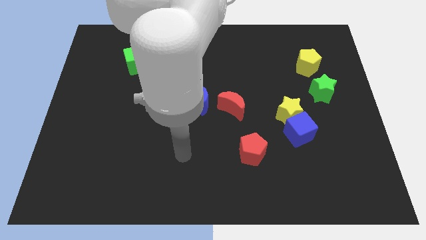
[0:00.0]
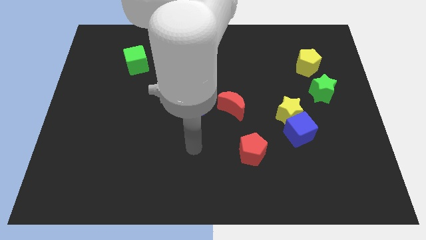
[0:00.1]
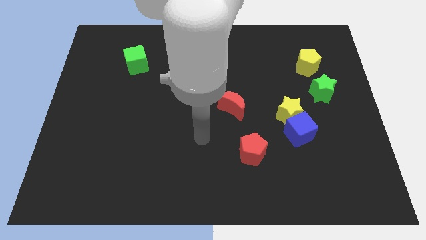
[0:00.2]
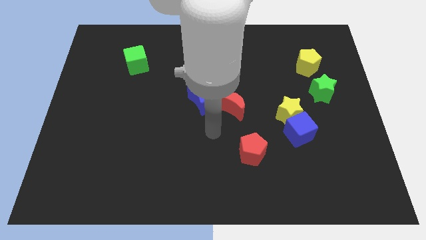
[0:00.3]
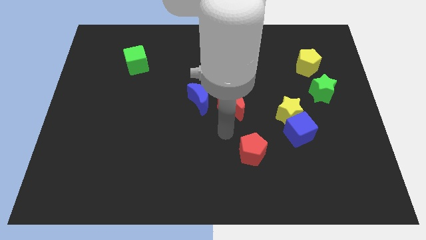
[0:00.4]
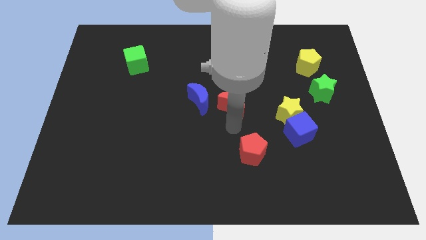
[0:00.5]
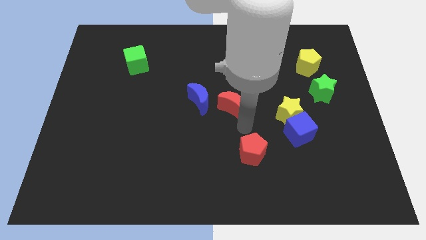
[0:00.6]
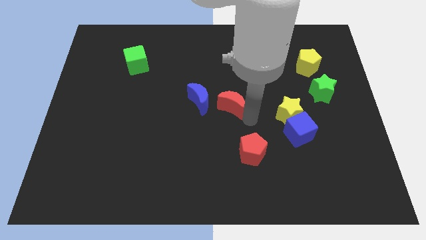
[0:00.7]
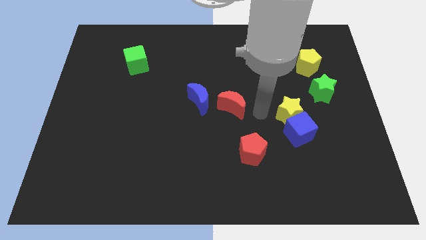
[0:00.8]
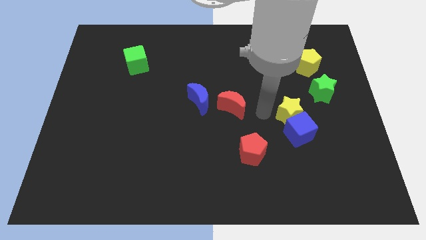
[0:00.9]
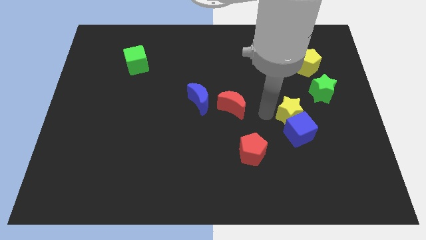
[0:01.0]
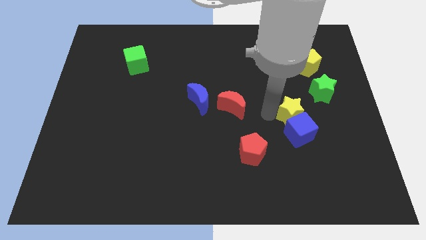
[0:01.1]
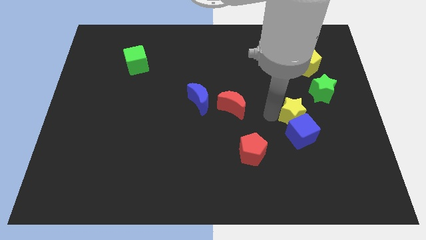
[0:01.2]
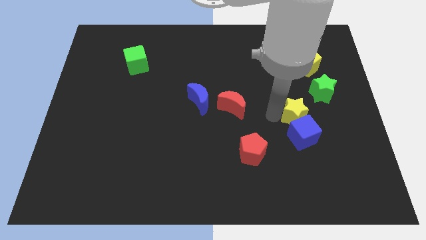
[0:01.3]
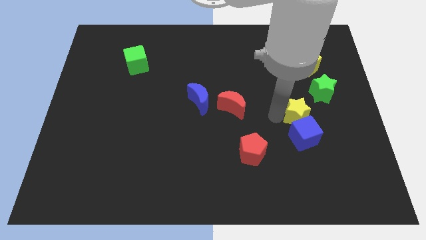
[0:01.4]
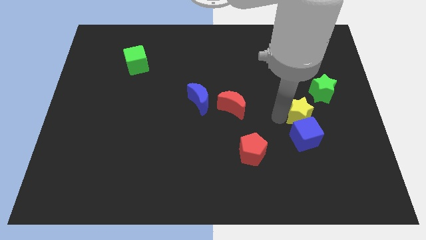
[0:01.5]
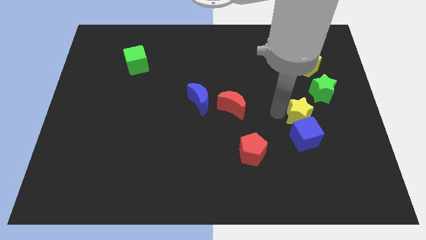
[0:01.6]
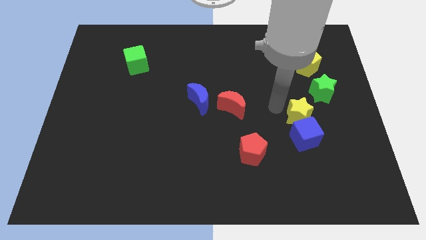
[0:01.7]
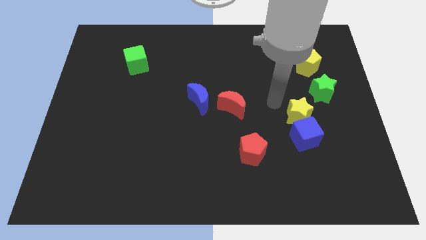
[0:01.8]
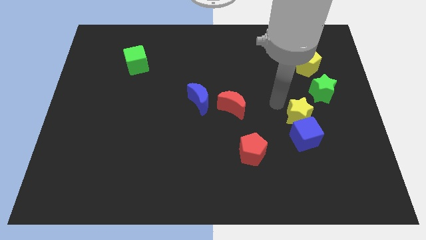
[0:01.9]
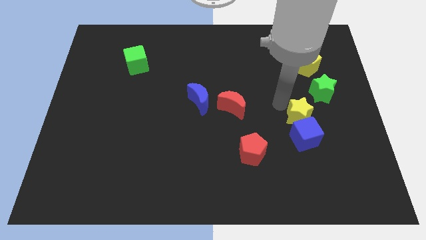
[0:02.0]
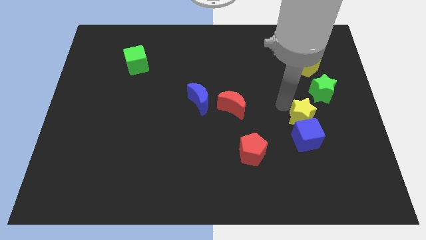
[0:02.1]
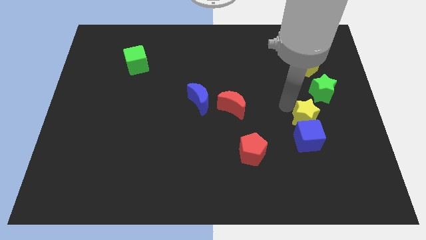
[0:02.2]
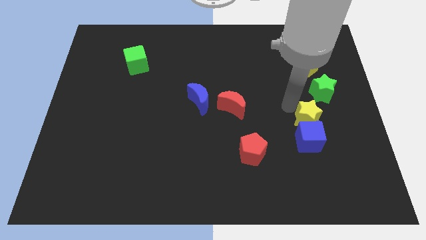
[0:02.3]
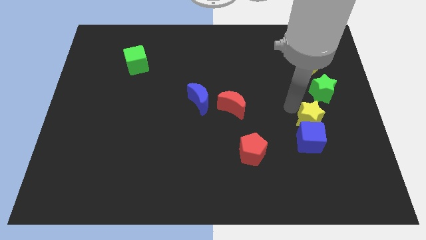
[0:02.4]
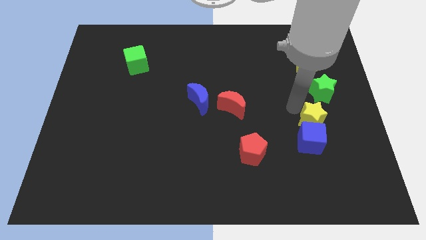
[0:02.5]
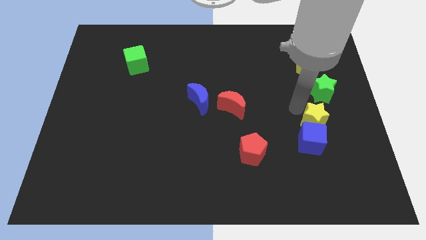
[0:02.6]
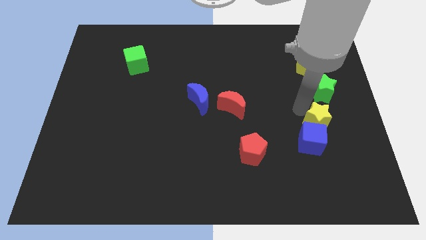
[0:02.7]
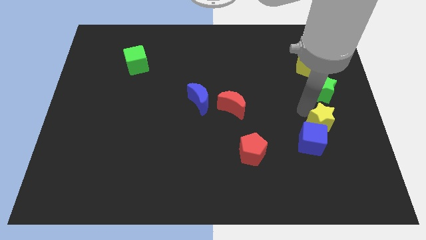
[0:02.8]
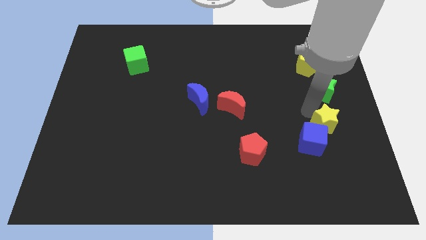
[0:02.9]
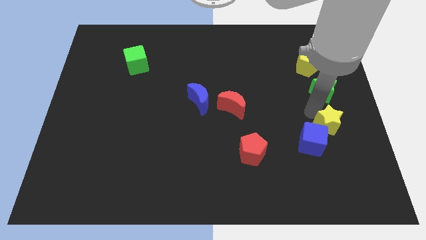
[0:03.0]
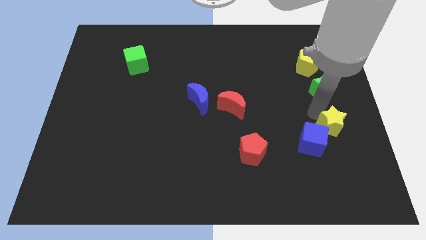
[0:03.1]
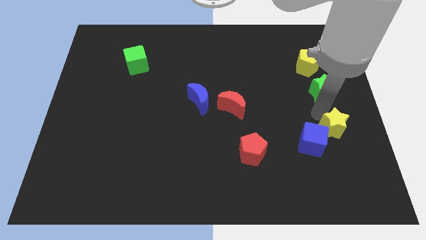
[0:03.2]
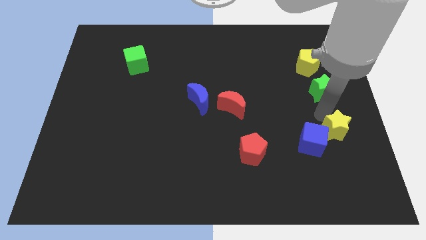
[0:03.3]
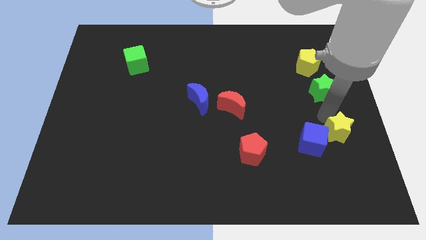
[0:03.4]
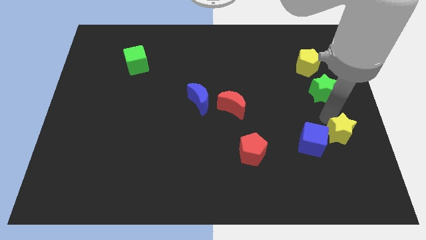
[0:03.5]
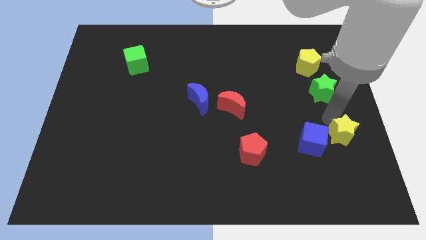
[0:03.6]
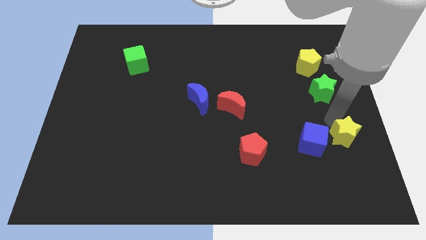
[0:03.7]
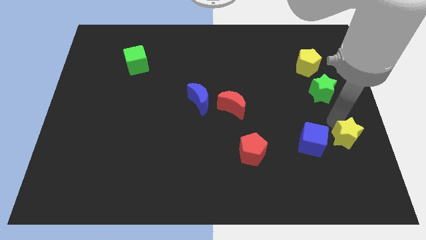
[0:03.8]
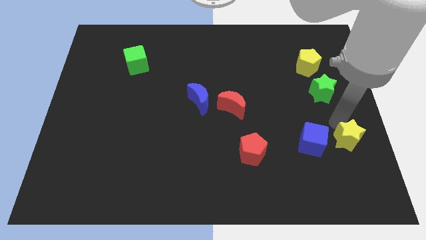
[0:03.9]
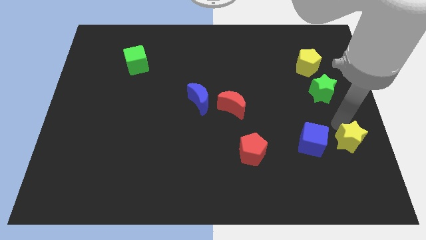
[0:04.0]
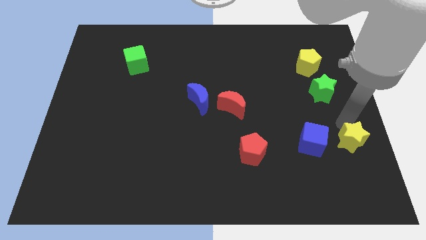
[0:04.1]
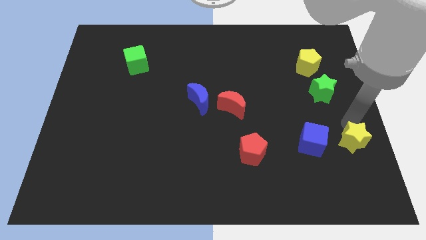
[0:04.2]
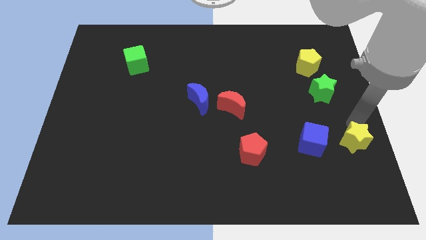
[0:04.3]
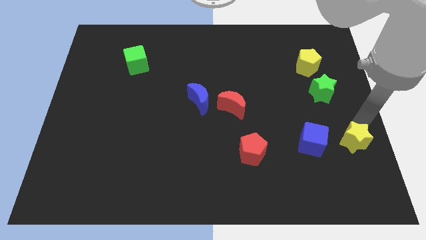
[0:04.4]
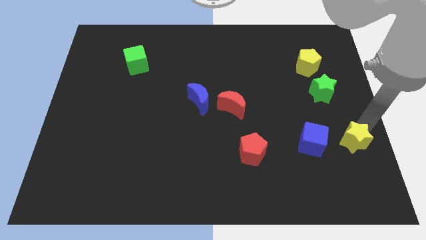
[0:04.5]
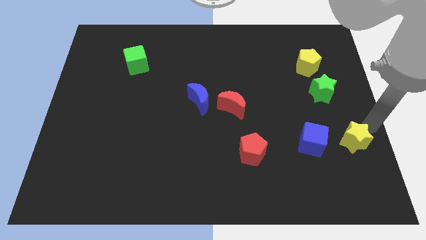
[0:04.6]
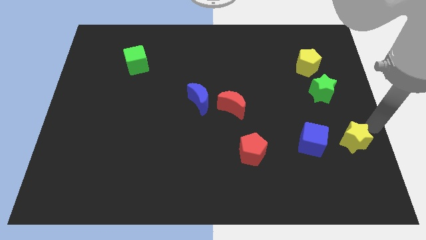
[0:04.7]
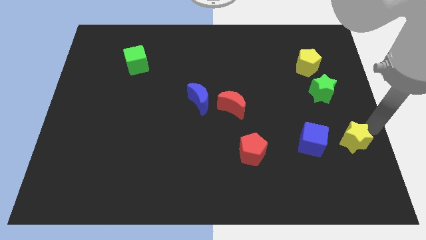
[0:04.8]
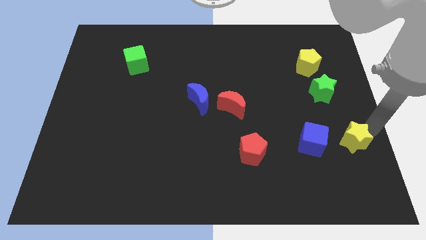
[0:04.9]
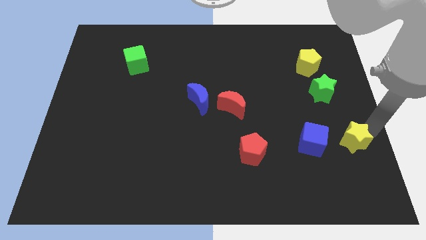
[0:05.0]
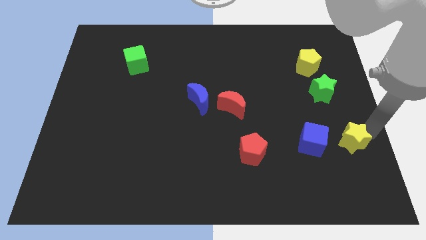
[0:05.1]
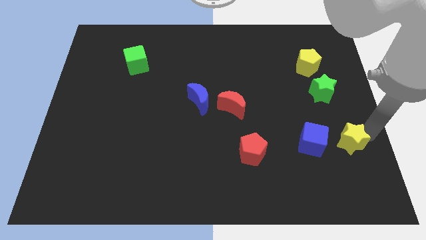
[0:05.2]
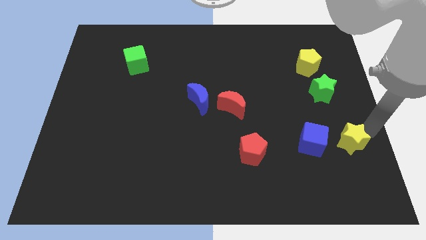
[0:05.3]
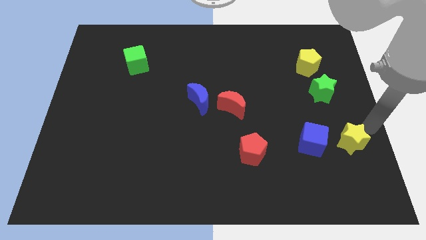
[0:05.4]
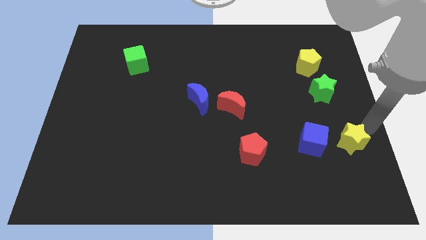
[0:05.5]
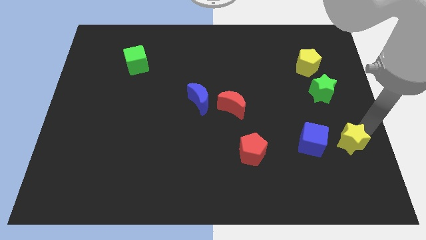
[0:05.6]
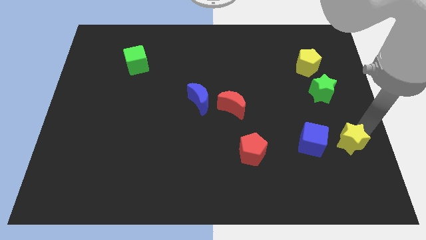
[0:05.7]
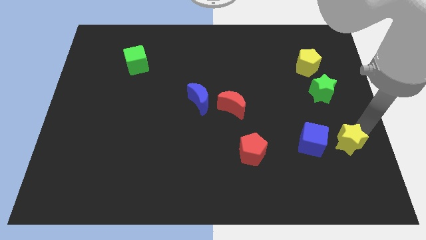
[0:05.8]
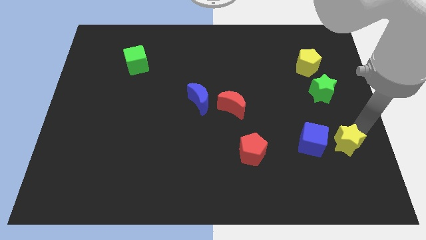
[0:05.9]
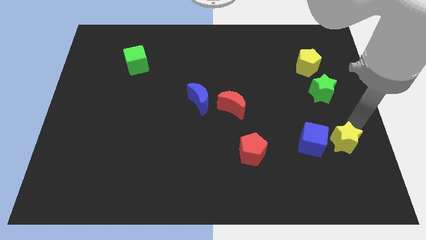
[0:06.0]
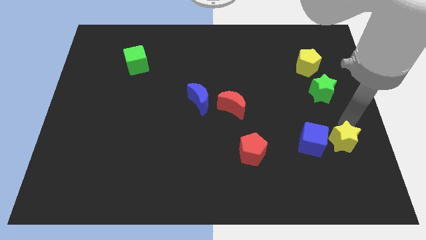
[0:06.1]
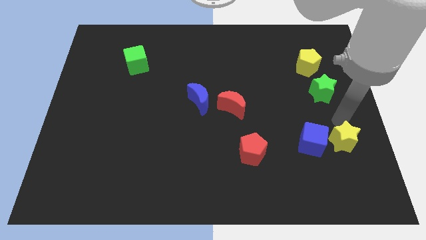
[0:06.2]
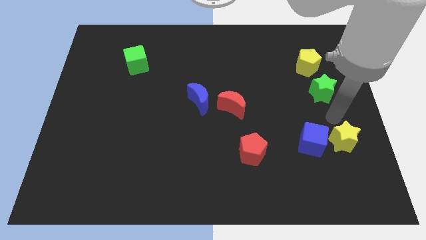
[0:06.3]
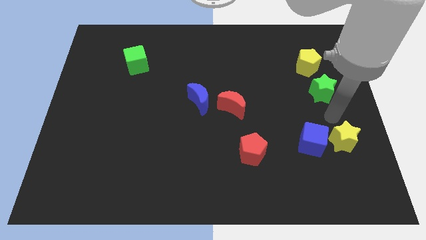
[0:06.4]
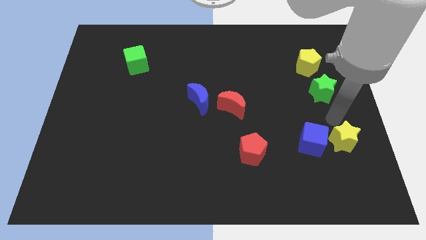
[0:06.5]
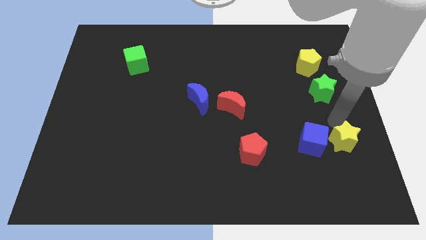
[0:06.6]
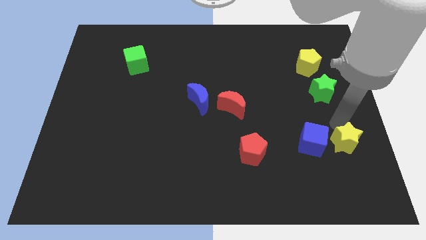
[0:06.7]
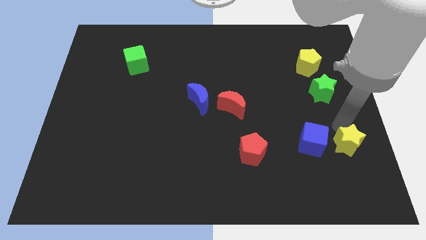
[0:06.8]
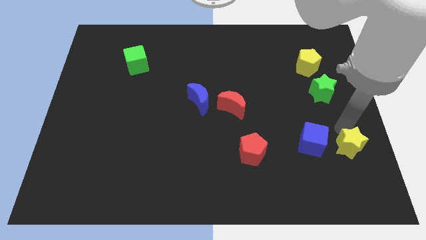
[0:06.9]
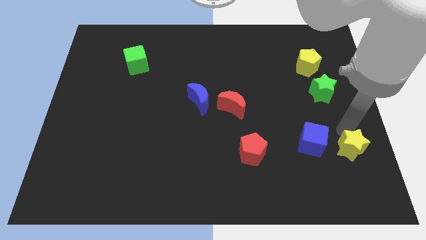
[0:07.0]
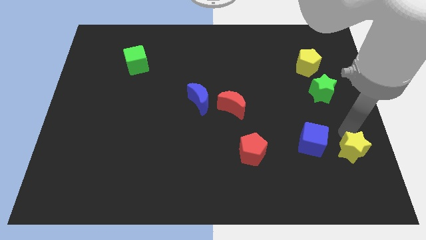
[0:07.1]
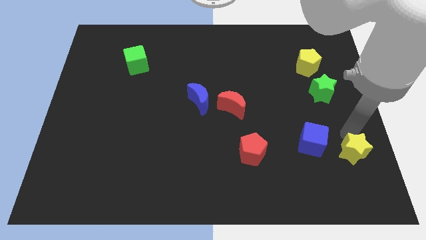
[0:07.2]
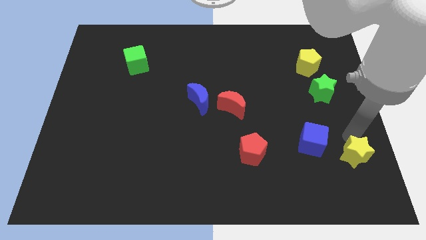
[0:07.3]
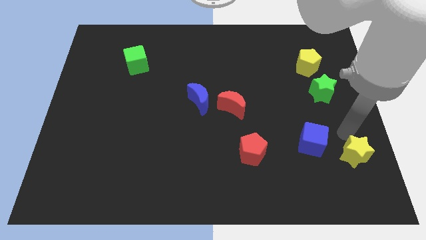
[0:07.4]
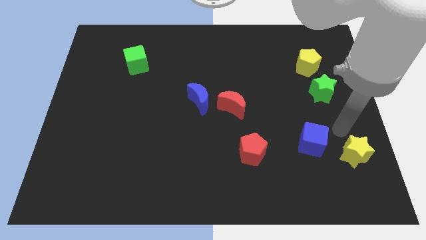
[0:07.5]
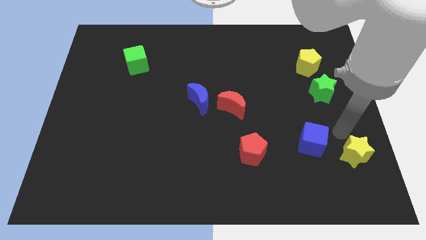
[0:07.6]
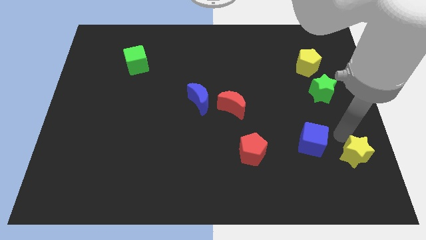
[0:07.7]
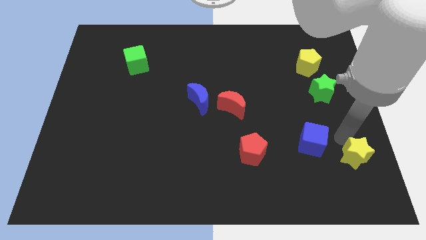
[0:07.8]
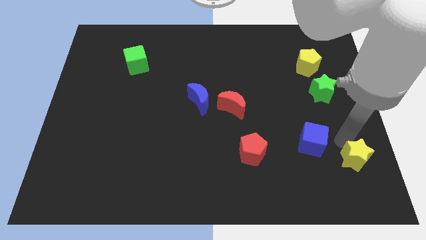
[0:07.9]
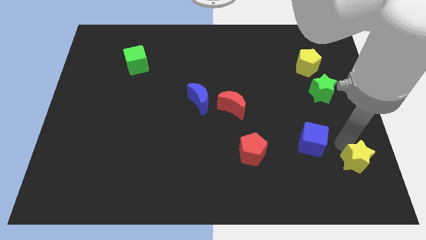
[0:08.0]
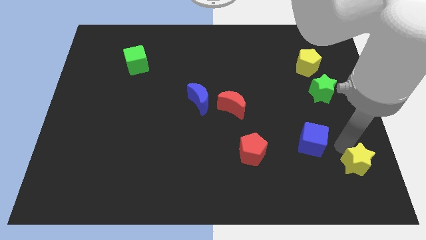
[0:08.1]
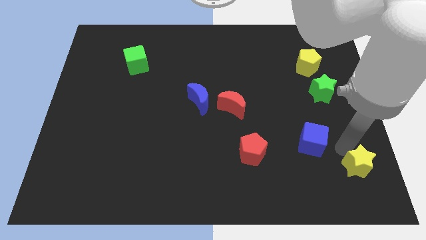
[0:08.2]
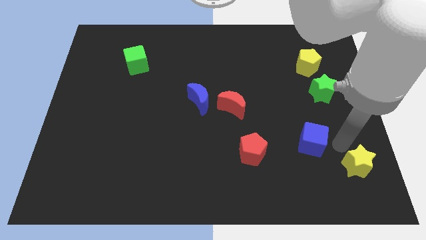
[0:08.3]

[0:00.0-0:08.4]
put the yellow star to the bottom right corner
